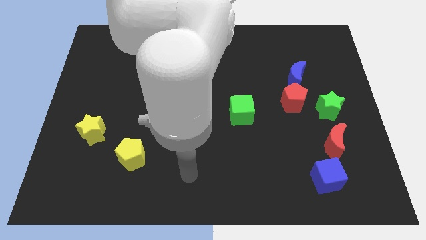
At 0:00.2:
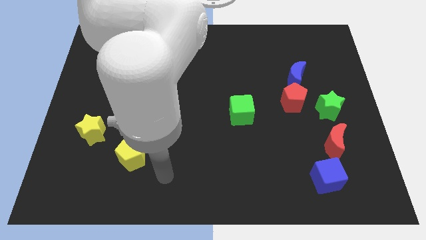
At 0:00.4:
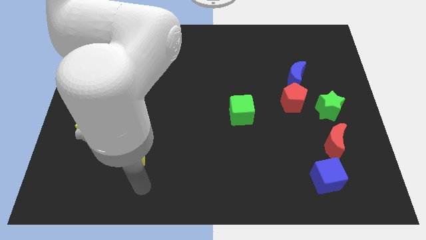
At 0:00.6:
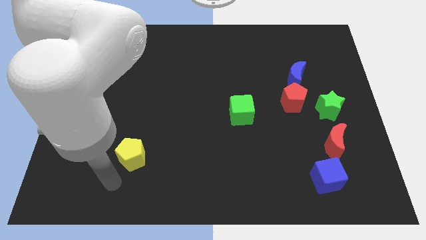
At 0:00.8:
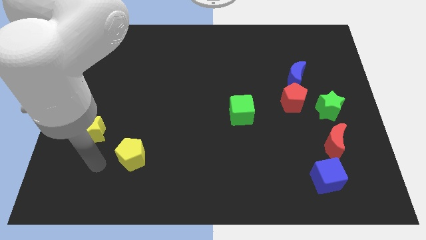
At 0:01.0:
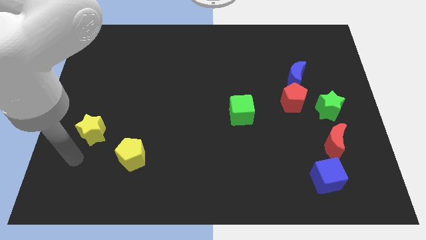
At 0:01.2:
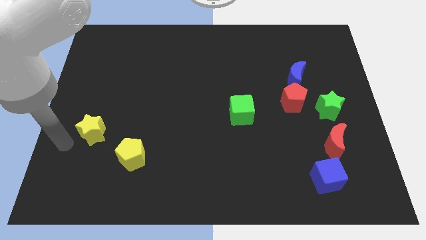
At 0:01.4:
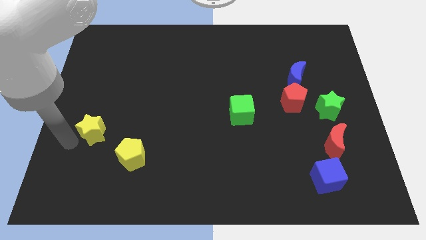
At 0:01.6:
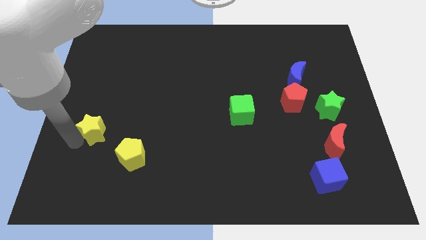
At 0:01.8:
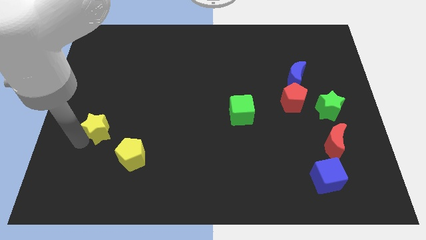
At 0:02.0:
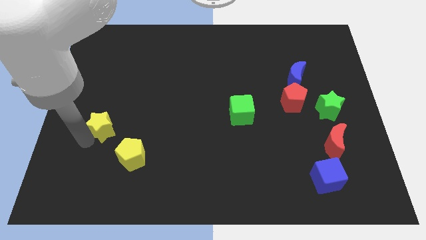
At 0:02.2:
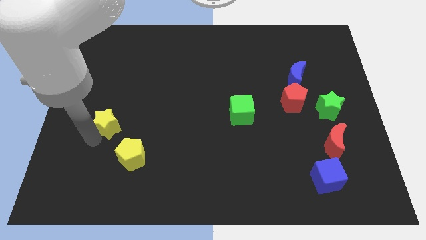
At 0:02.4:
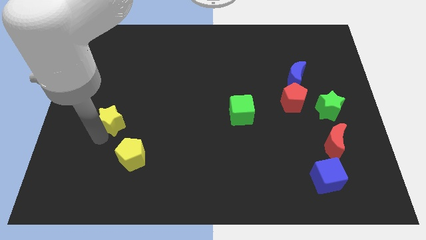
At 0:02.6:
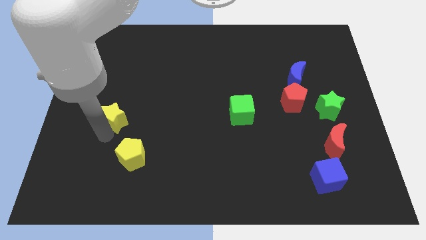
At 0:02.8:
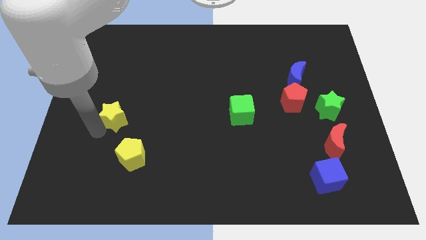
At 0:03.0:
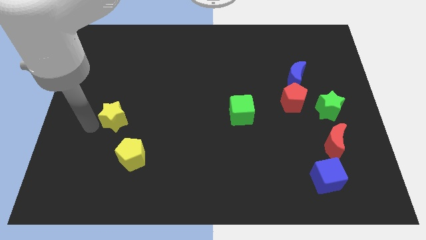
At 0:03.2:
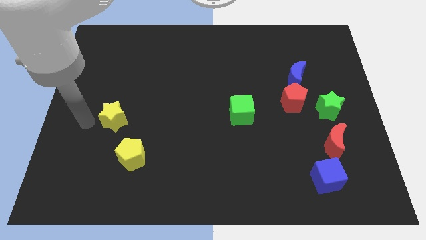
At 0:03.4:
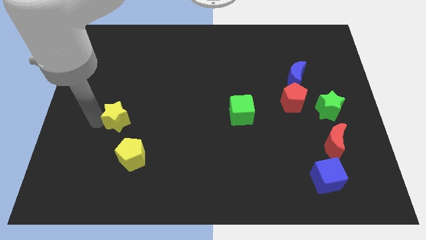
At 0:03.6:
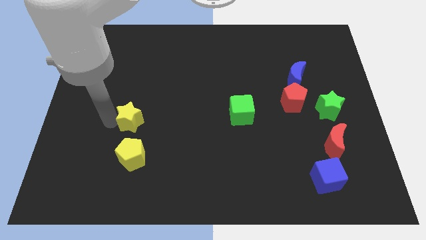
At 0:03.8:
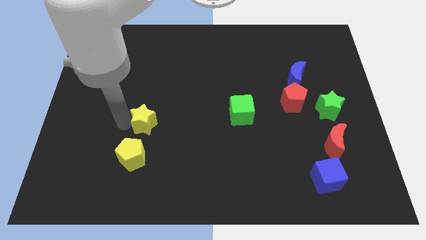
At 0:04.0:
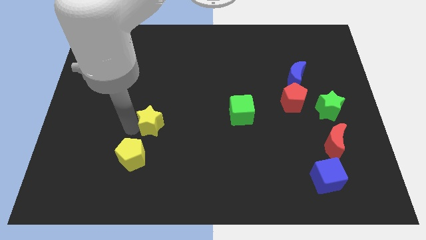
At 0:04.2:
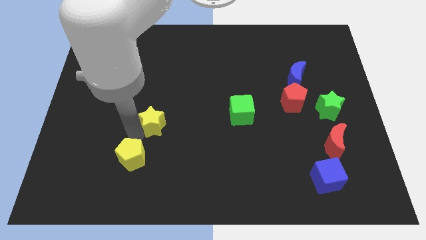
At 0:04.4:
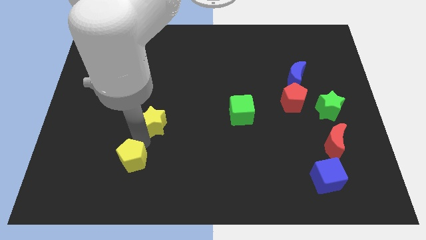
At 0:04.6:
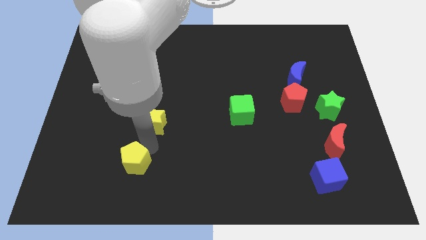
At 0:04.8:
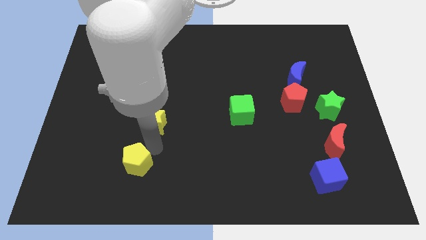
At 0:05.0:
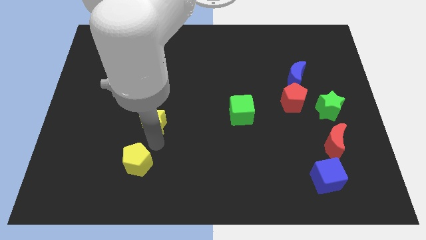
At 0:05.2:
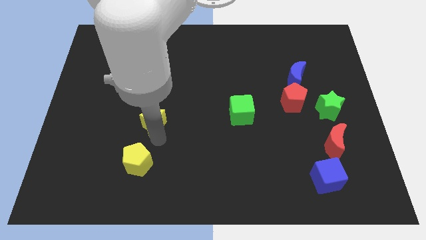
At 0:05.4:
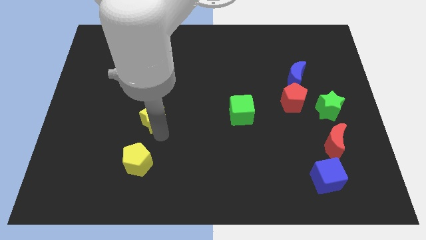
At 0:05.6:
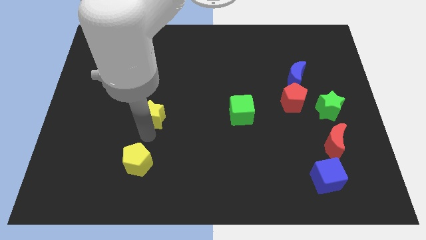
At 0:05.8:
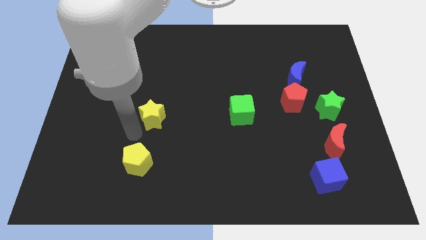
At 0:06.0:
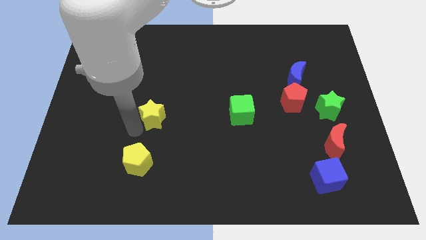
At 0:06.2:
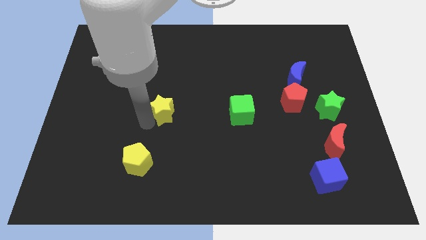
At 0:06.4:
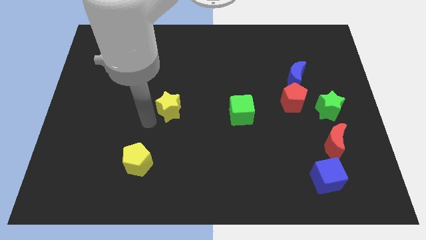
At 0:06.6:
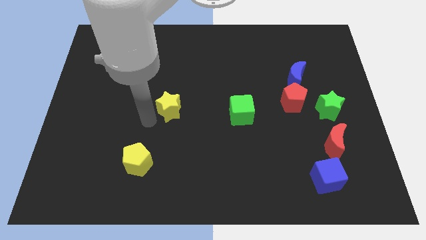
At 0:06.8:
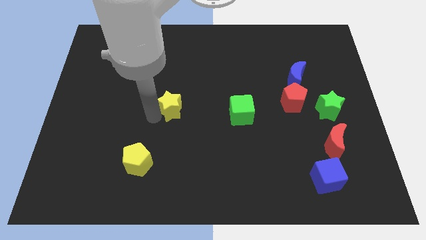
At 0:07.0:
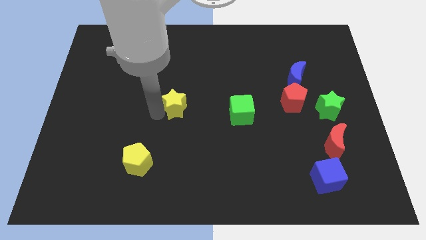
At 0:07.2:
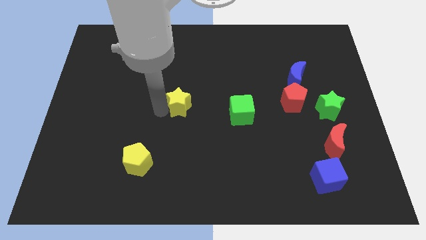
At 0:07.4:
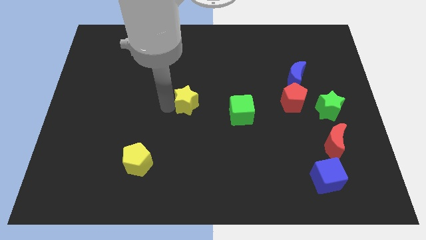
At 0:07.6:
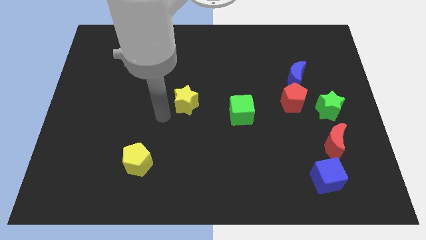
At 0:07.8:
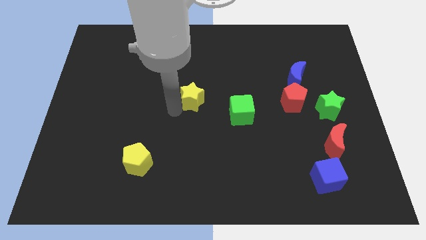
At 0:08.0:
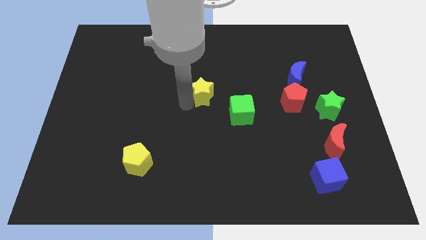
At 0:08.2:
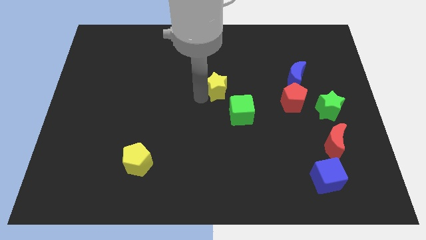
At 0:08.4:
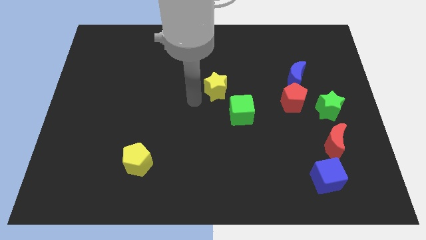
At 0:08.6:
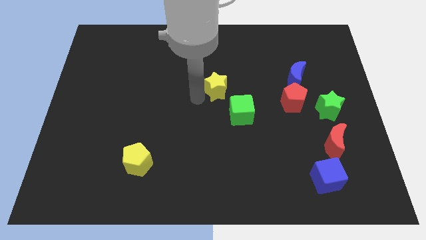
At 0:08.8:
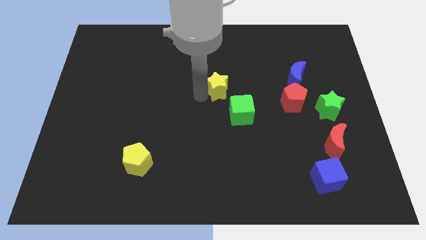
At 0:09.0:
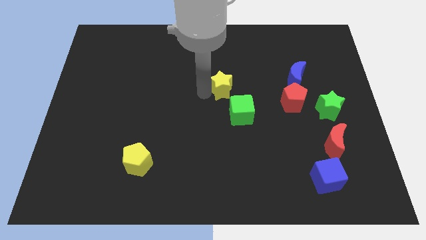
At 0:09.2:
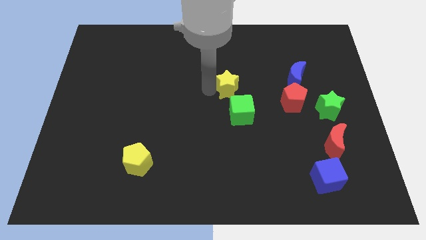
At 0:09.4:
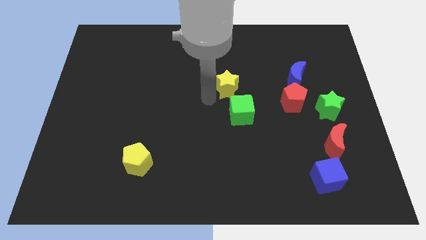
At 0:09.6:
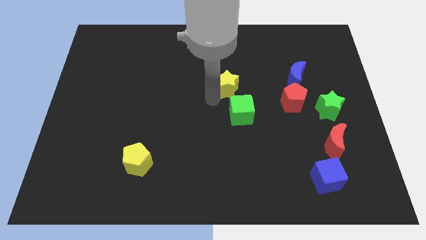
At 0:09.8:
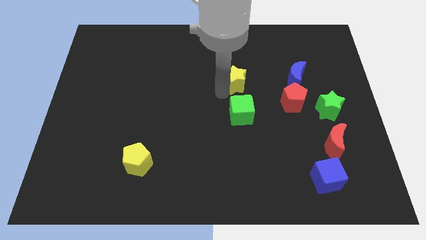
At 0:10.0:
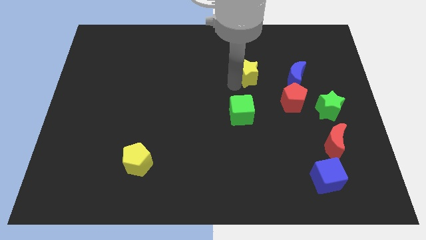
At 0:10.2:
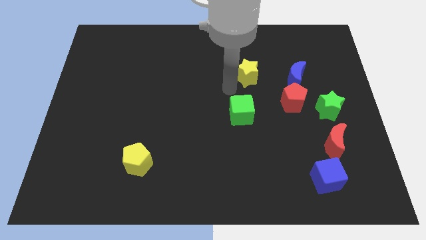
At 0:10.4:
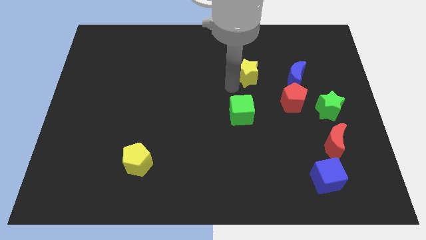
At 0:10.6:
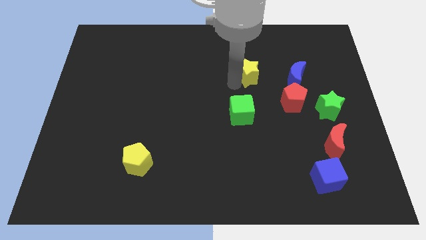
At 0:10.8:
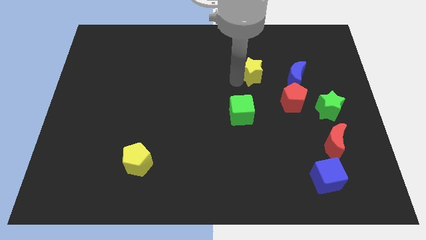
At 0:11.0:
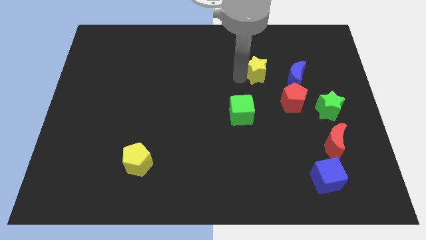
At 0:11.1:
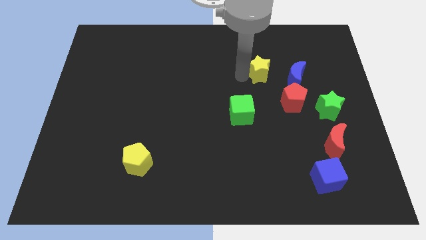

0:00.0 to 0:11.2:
push the yellow star to the top left of the blue moon

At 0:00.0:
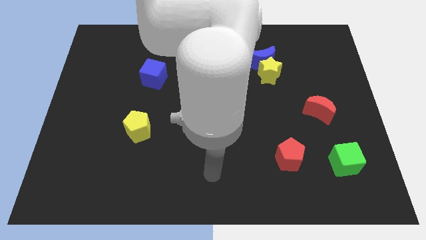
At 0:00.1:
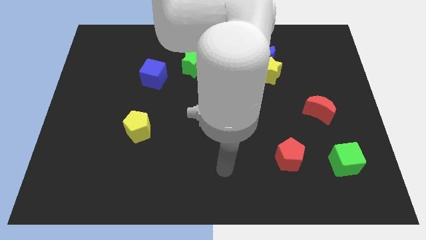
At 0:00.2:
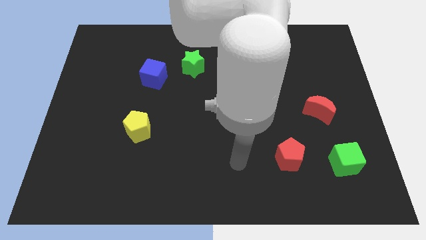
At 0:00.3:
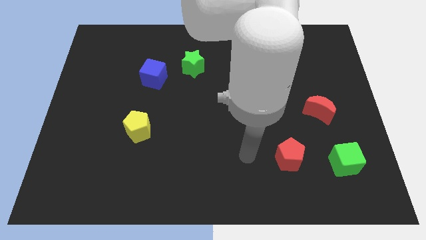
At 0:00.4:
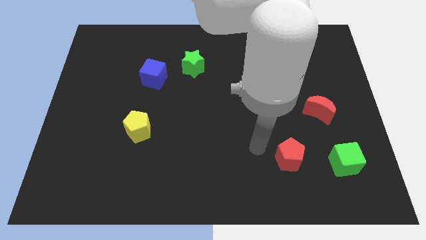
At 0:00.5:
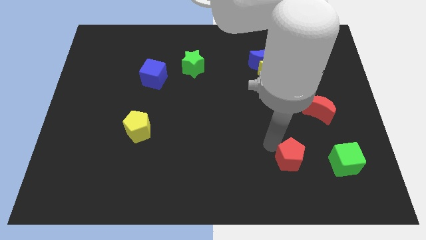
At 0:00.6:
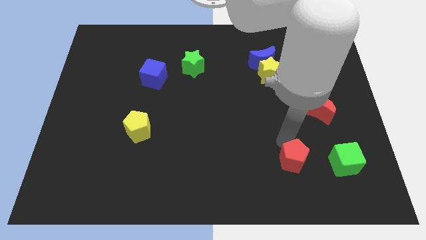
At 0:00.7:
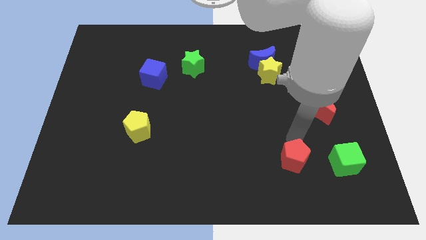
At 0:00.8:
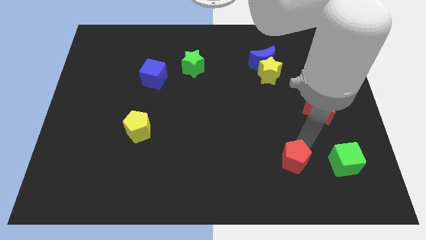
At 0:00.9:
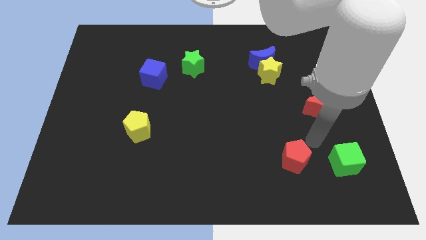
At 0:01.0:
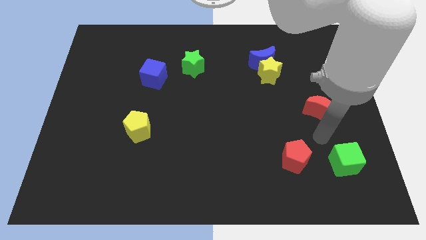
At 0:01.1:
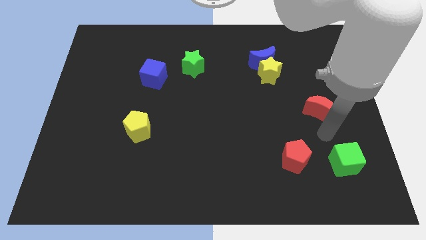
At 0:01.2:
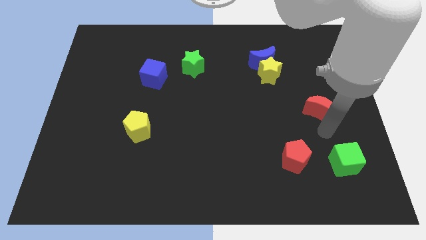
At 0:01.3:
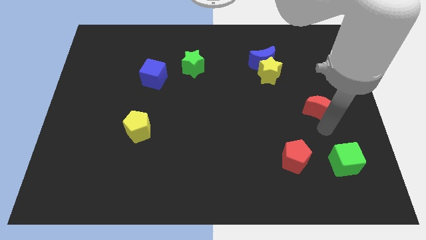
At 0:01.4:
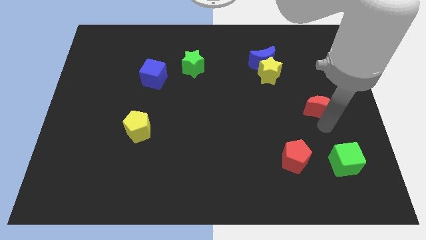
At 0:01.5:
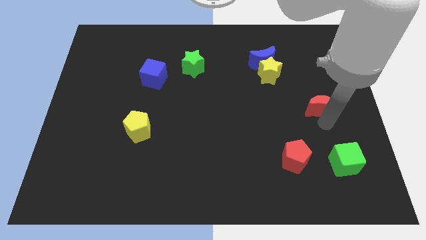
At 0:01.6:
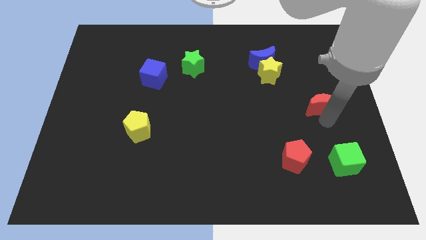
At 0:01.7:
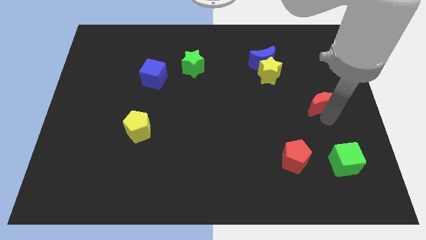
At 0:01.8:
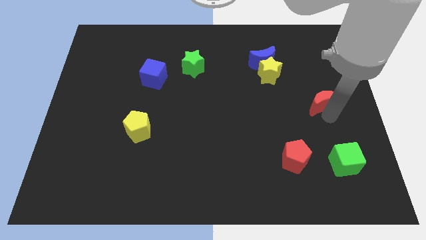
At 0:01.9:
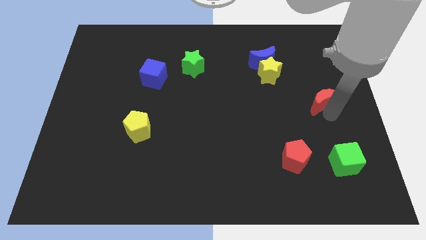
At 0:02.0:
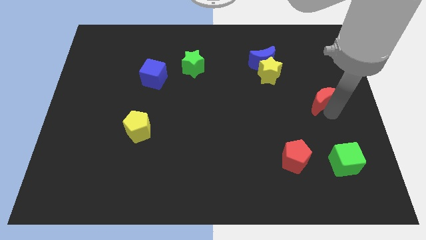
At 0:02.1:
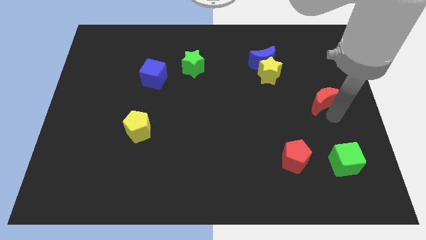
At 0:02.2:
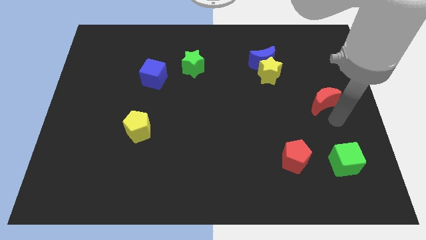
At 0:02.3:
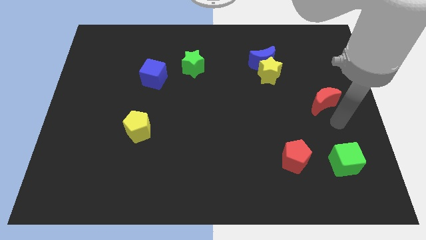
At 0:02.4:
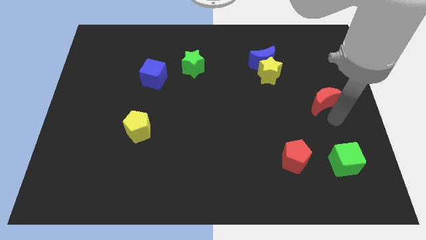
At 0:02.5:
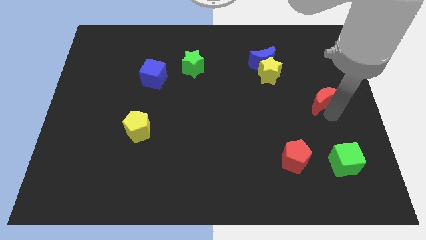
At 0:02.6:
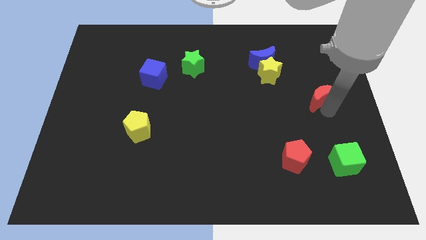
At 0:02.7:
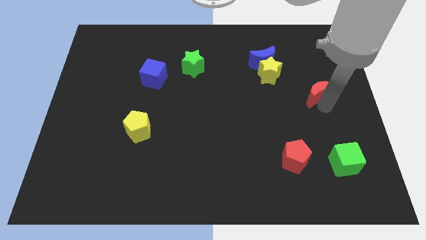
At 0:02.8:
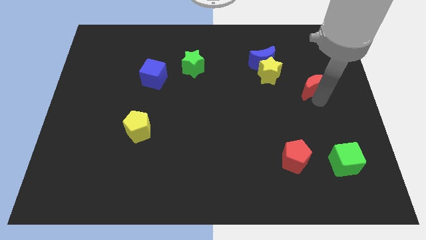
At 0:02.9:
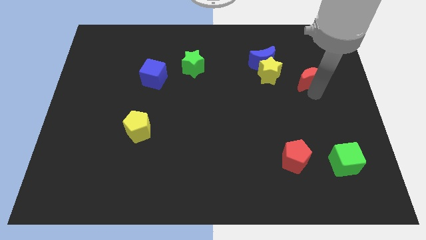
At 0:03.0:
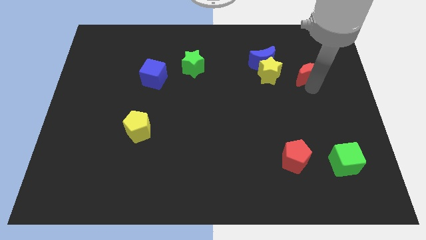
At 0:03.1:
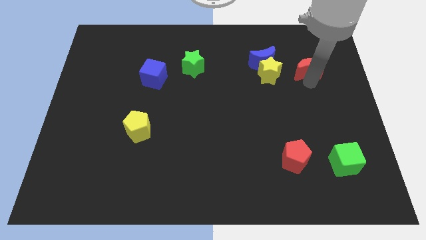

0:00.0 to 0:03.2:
slide the red moon to the right of the blue moon
